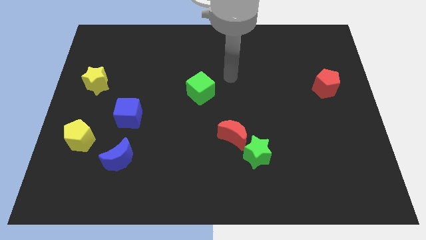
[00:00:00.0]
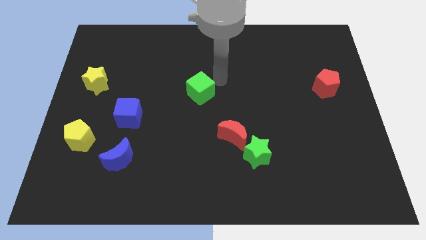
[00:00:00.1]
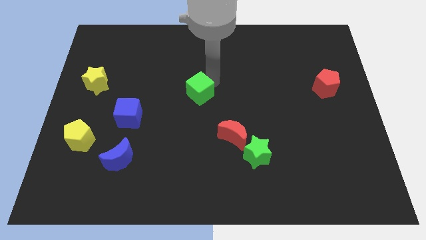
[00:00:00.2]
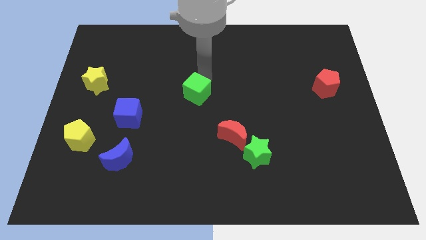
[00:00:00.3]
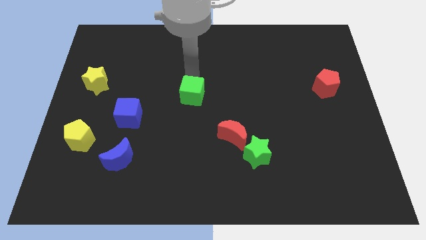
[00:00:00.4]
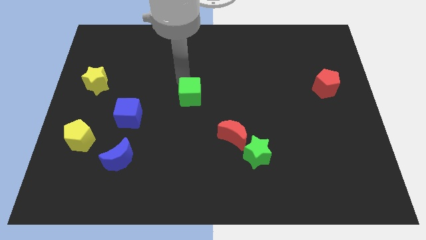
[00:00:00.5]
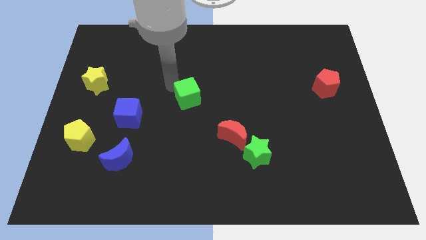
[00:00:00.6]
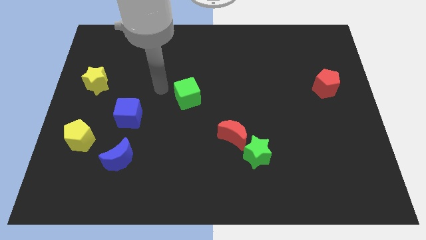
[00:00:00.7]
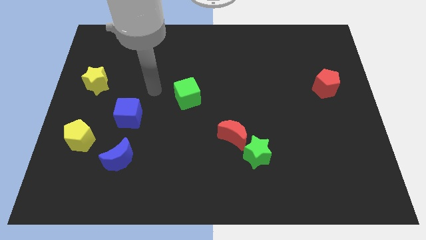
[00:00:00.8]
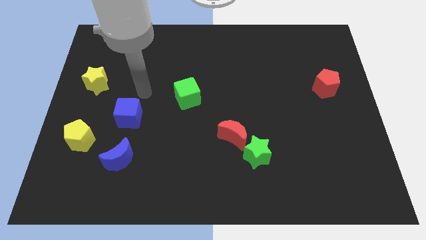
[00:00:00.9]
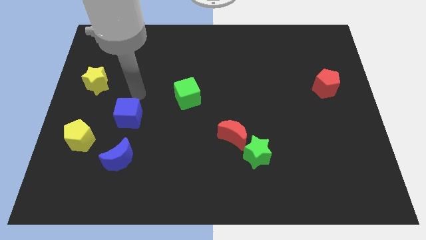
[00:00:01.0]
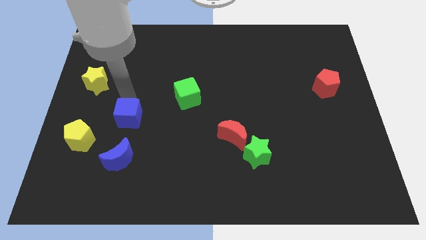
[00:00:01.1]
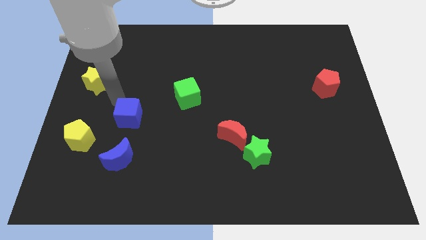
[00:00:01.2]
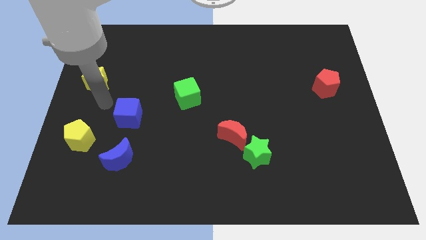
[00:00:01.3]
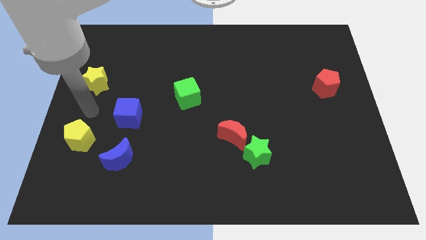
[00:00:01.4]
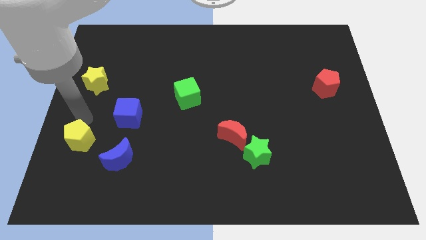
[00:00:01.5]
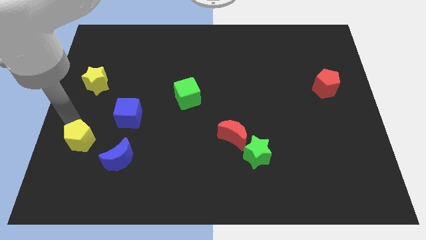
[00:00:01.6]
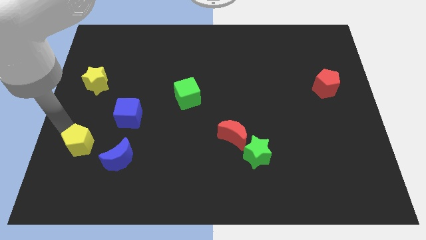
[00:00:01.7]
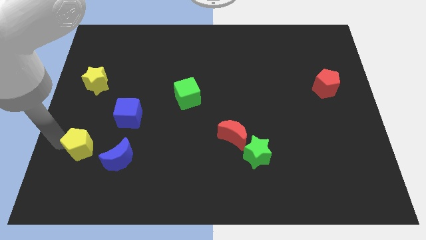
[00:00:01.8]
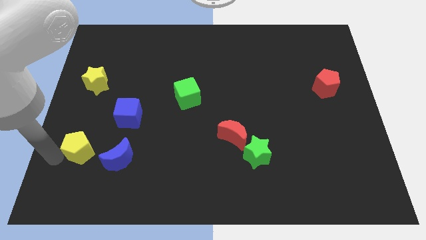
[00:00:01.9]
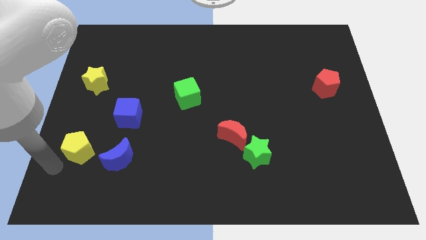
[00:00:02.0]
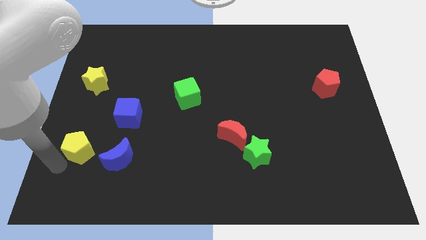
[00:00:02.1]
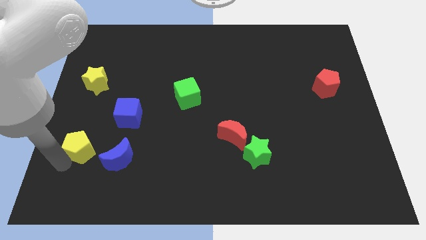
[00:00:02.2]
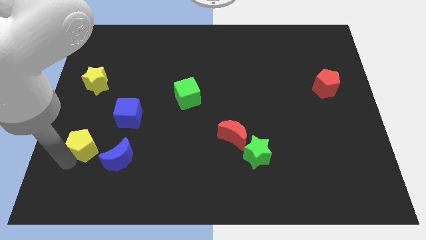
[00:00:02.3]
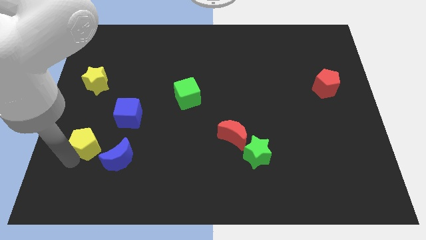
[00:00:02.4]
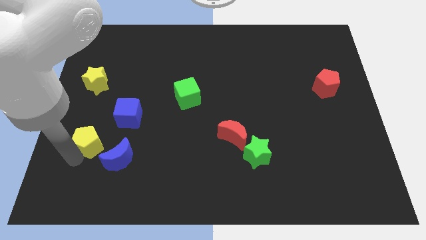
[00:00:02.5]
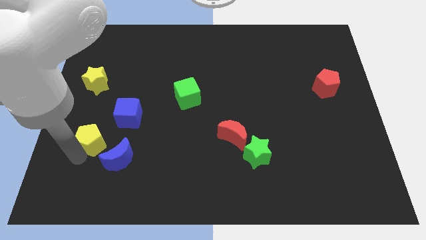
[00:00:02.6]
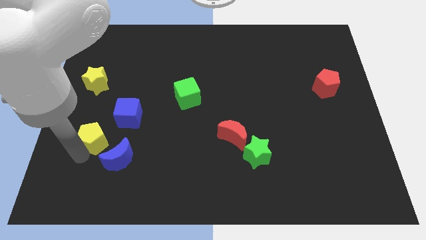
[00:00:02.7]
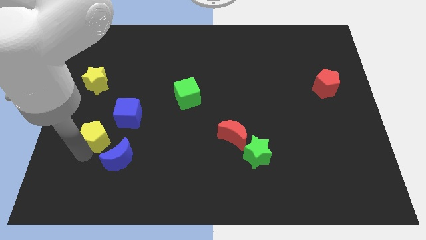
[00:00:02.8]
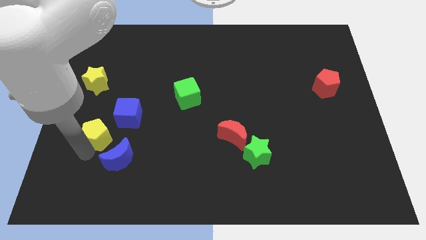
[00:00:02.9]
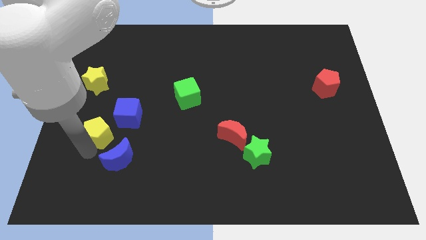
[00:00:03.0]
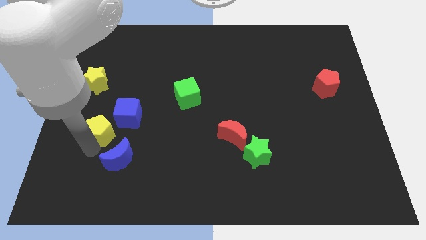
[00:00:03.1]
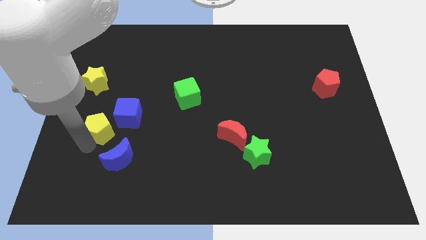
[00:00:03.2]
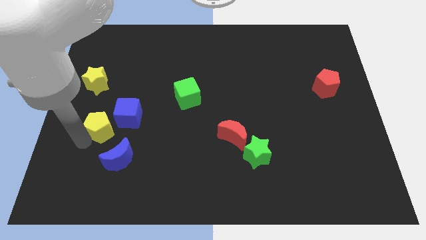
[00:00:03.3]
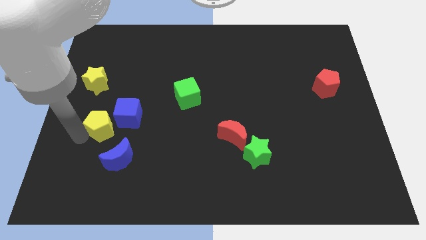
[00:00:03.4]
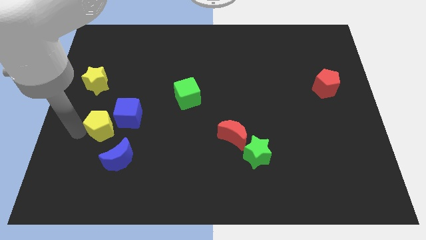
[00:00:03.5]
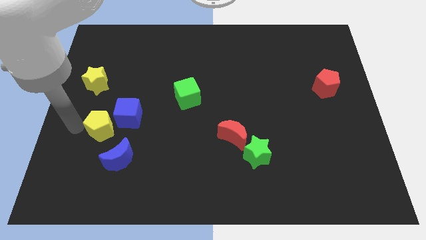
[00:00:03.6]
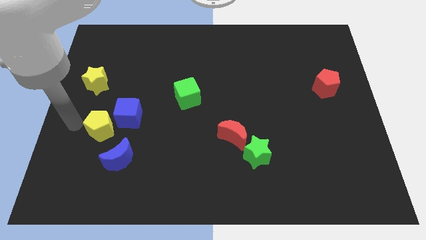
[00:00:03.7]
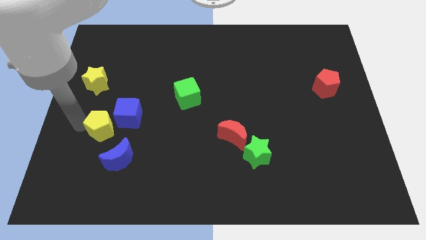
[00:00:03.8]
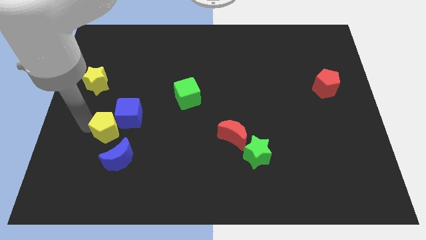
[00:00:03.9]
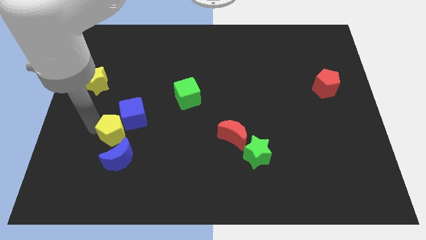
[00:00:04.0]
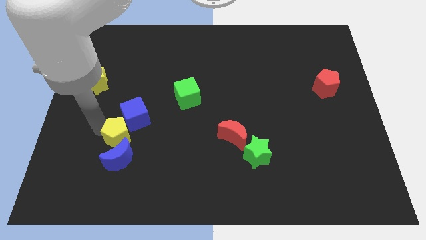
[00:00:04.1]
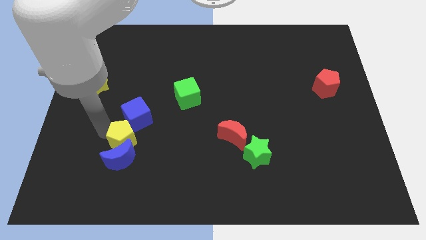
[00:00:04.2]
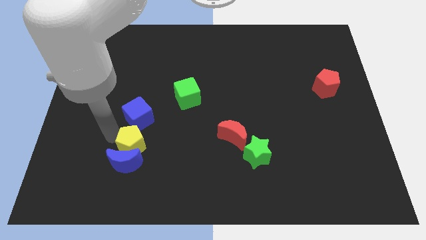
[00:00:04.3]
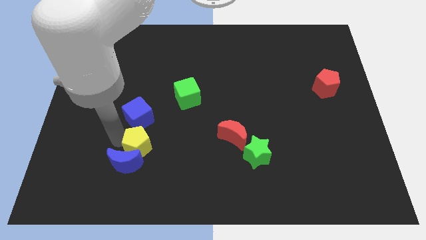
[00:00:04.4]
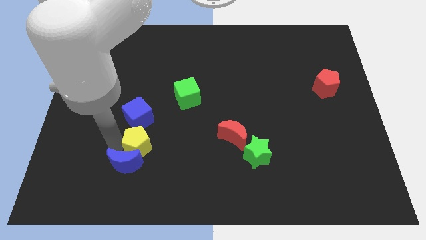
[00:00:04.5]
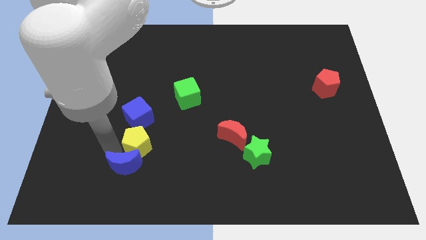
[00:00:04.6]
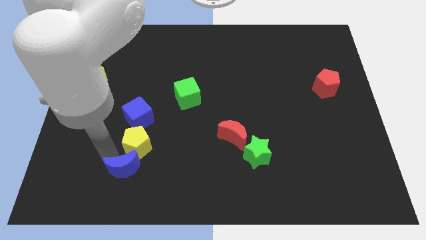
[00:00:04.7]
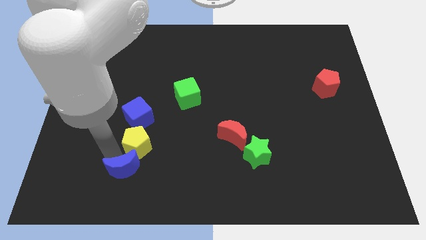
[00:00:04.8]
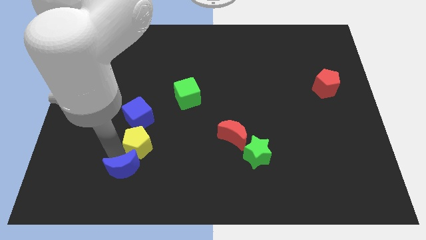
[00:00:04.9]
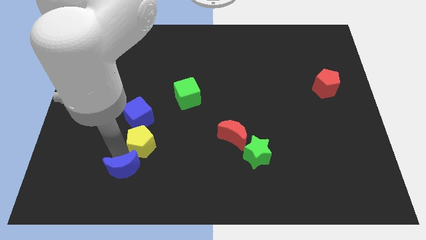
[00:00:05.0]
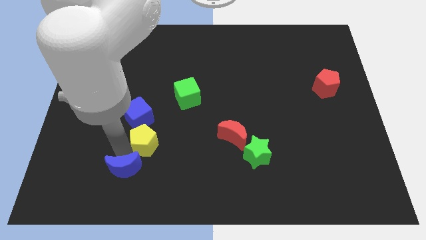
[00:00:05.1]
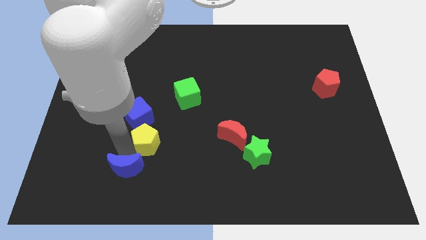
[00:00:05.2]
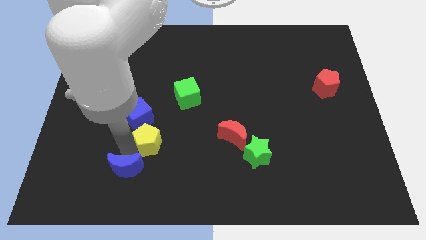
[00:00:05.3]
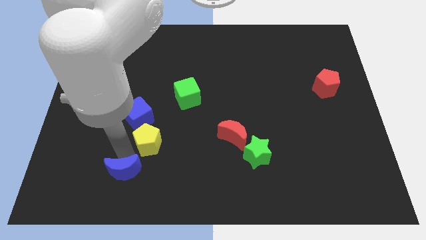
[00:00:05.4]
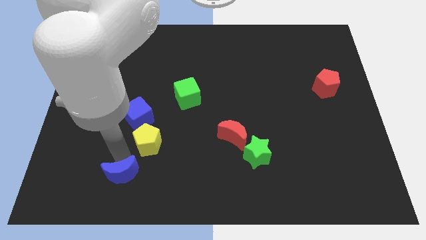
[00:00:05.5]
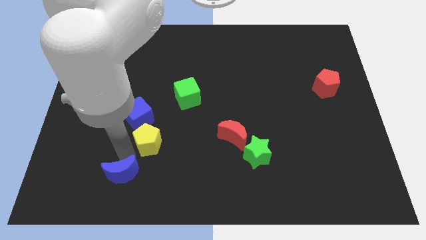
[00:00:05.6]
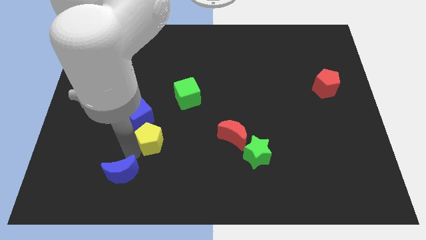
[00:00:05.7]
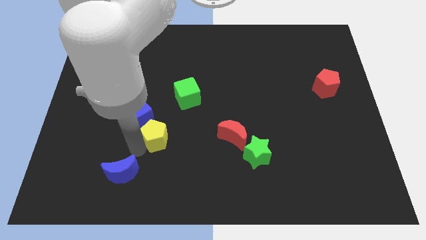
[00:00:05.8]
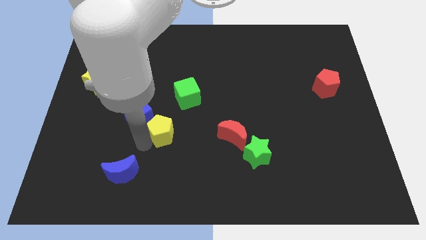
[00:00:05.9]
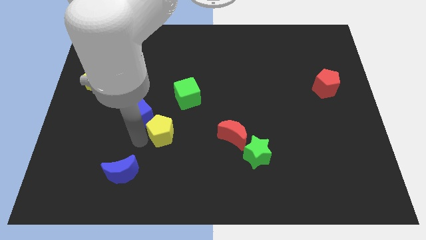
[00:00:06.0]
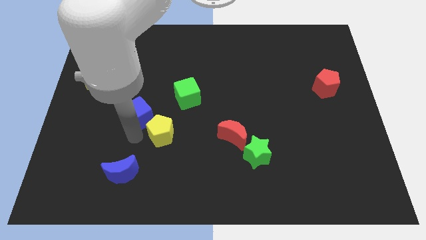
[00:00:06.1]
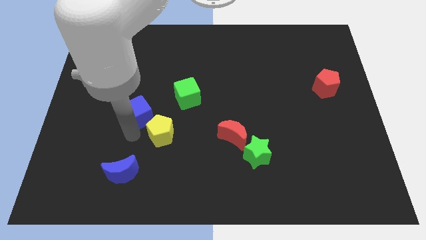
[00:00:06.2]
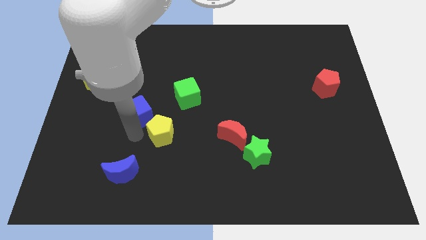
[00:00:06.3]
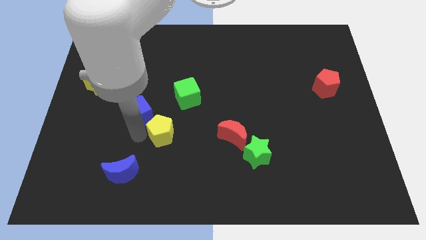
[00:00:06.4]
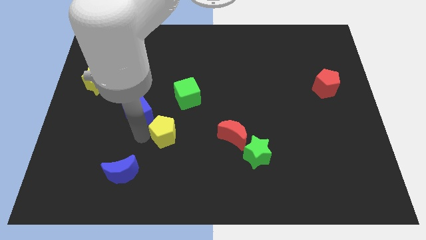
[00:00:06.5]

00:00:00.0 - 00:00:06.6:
push the yellow pentagon below the green cube
